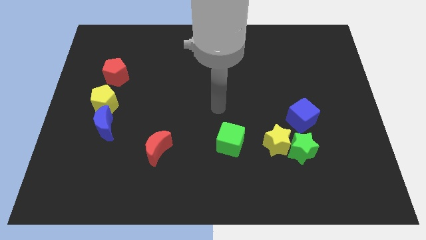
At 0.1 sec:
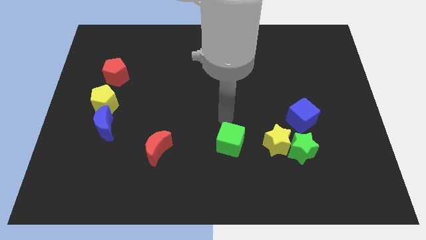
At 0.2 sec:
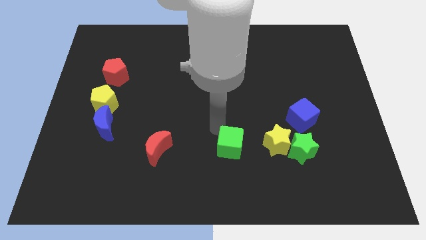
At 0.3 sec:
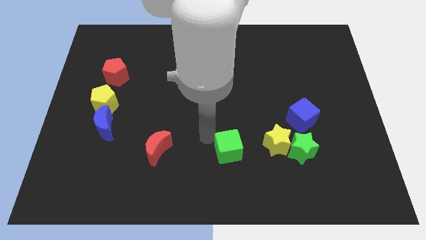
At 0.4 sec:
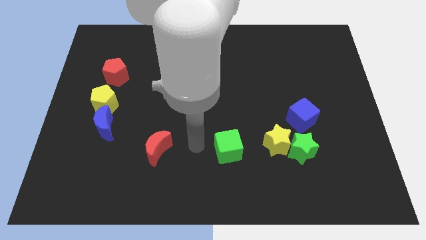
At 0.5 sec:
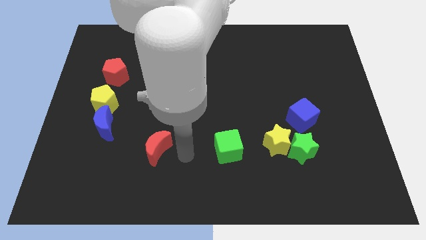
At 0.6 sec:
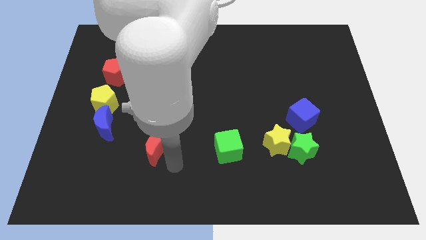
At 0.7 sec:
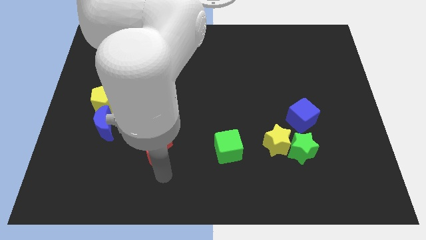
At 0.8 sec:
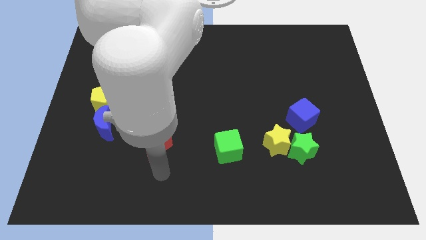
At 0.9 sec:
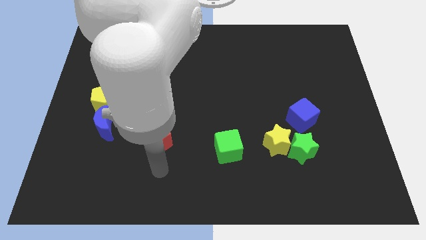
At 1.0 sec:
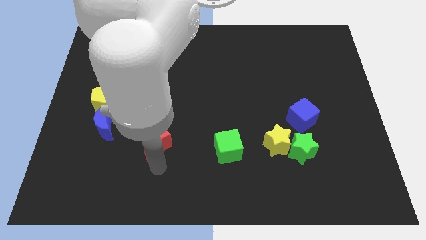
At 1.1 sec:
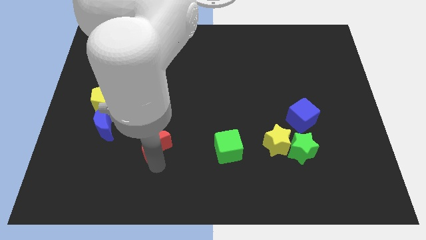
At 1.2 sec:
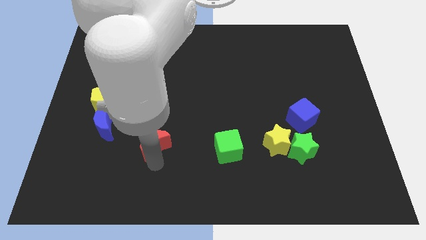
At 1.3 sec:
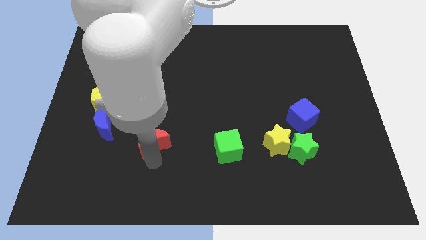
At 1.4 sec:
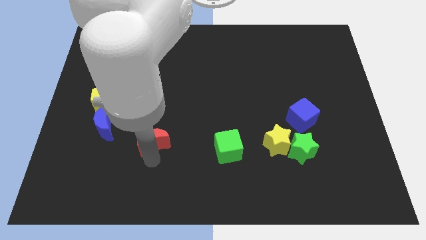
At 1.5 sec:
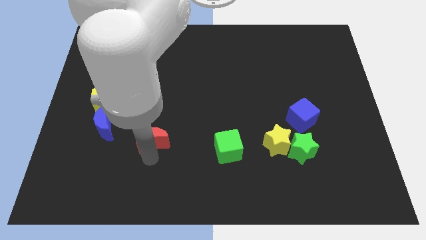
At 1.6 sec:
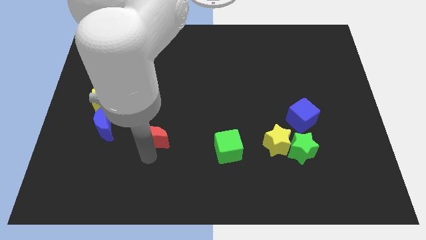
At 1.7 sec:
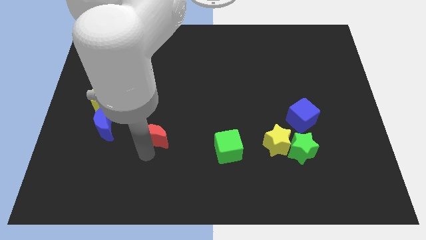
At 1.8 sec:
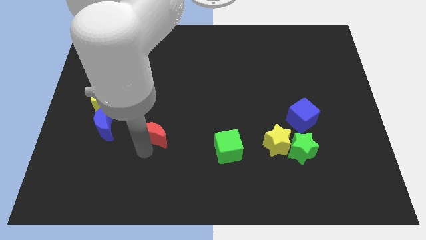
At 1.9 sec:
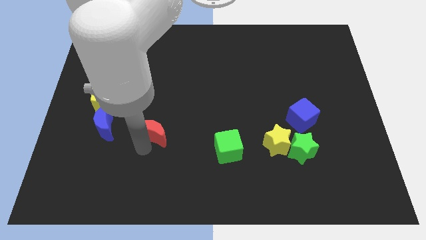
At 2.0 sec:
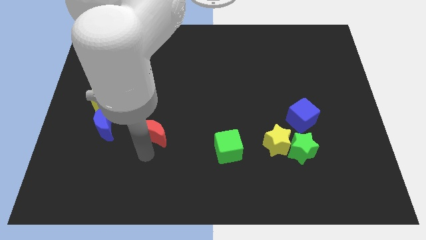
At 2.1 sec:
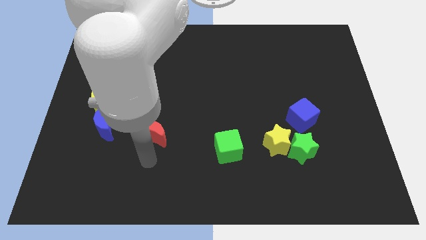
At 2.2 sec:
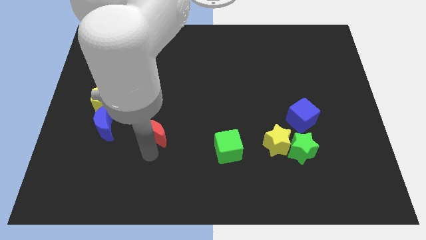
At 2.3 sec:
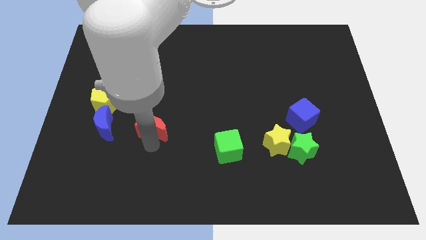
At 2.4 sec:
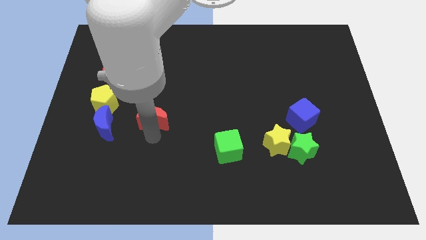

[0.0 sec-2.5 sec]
push the red moon a little up

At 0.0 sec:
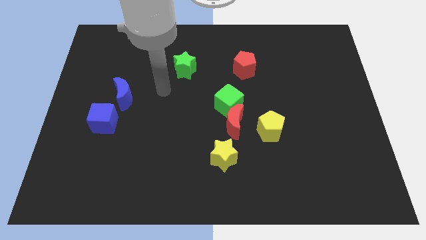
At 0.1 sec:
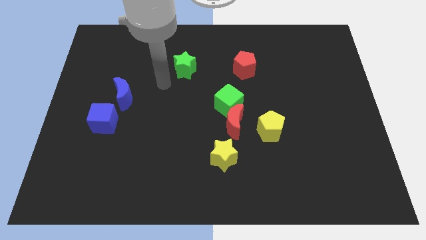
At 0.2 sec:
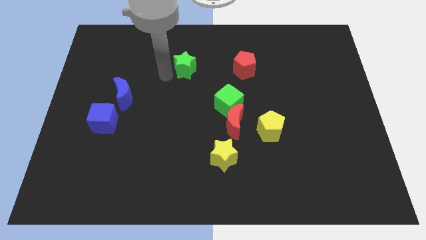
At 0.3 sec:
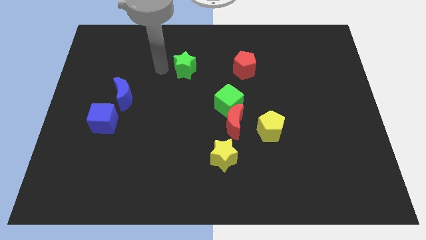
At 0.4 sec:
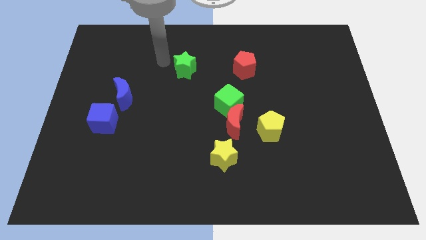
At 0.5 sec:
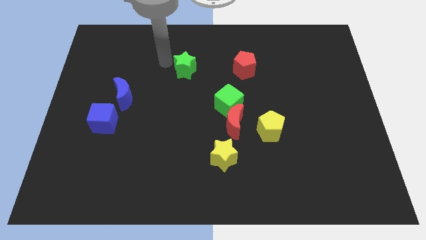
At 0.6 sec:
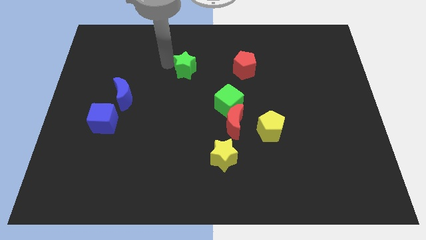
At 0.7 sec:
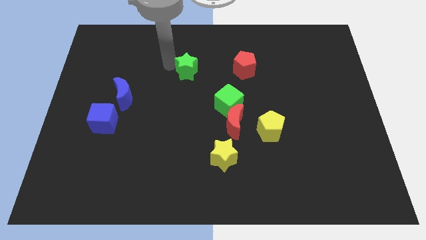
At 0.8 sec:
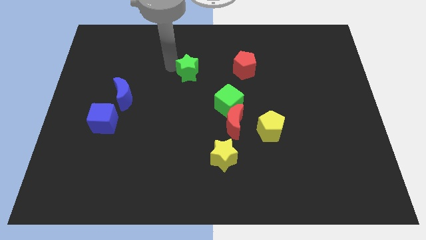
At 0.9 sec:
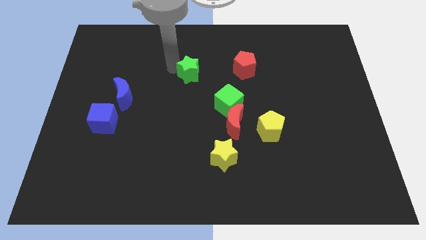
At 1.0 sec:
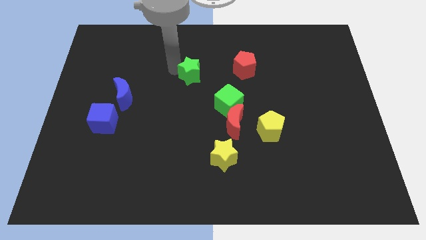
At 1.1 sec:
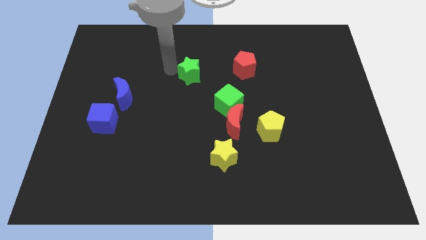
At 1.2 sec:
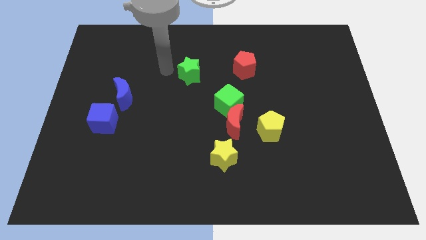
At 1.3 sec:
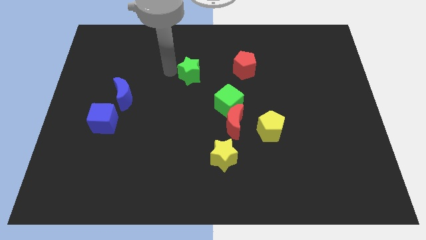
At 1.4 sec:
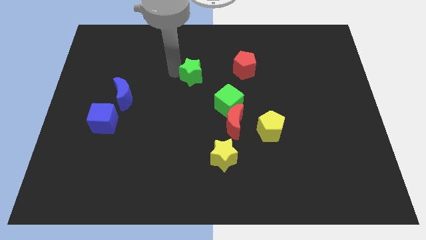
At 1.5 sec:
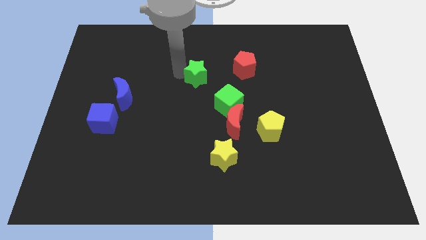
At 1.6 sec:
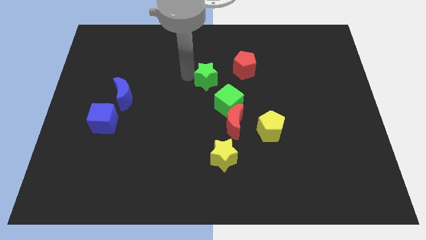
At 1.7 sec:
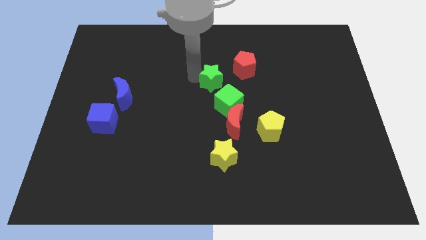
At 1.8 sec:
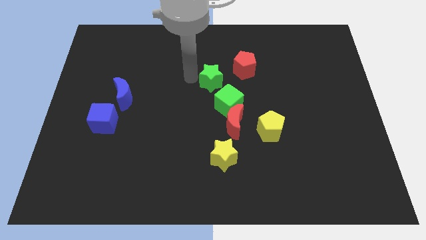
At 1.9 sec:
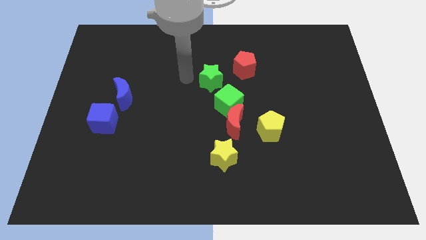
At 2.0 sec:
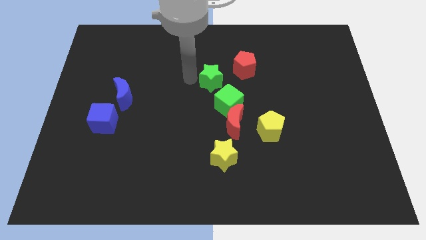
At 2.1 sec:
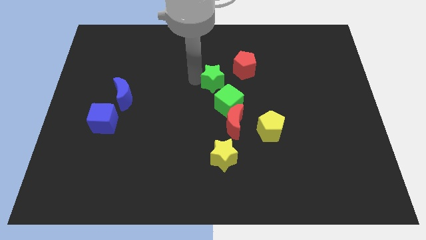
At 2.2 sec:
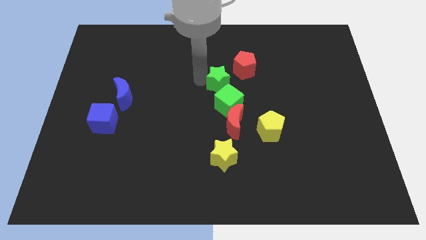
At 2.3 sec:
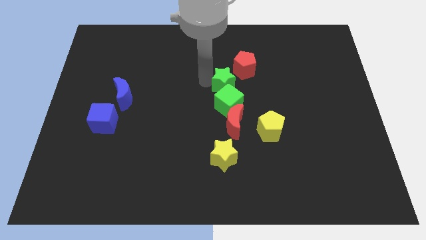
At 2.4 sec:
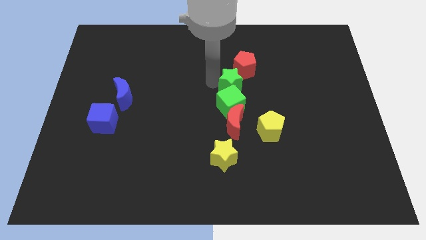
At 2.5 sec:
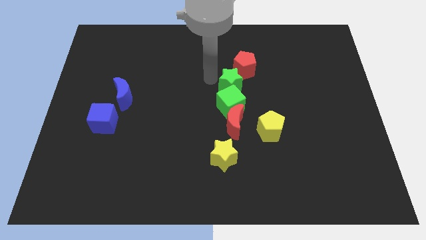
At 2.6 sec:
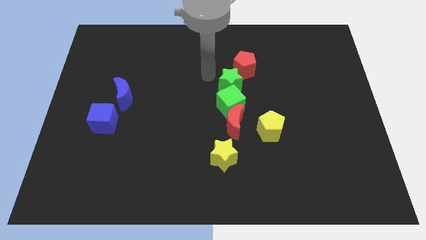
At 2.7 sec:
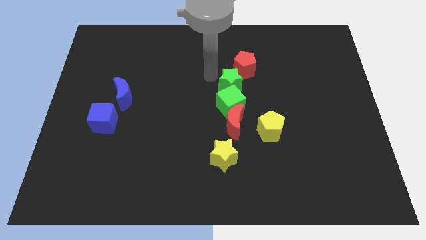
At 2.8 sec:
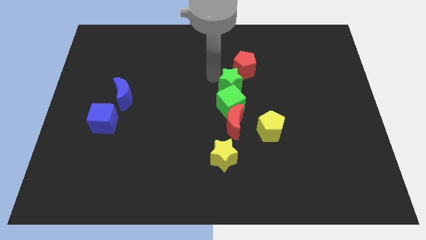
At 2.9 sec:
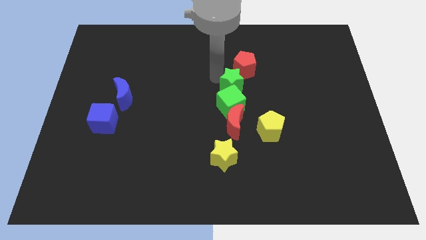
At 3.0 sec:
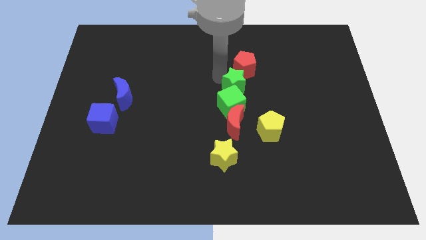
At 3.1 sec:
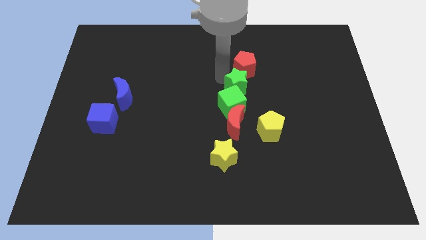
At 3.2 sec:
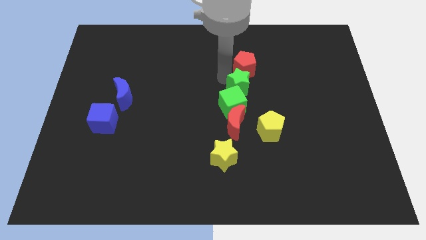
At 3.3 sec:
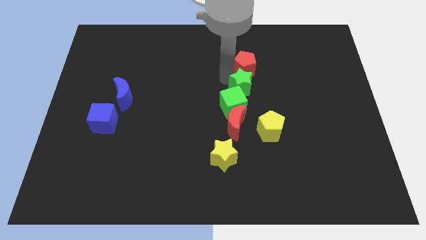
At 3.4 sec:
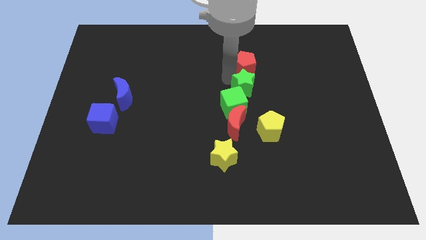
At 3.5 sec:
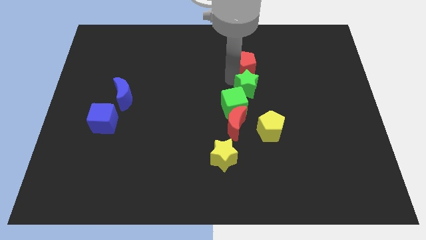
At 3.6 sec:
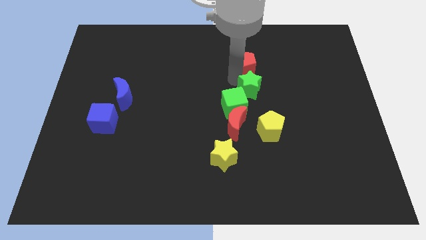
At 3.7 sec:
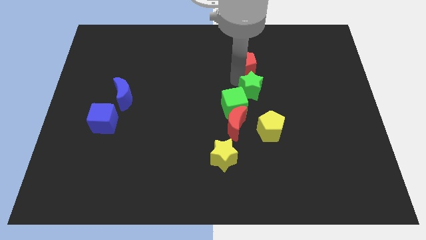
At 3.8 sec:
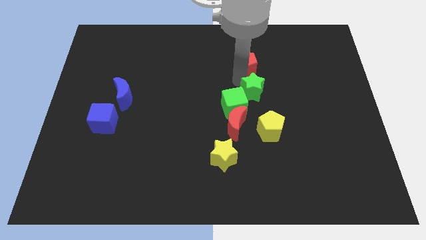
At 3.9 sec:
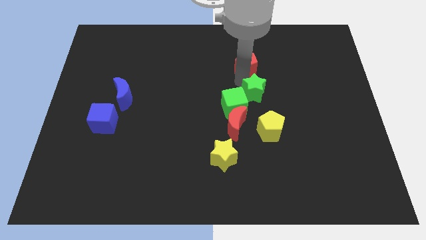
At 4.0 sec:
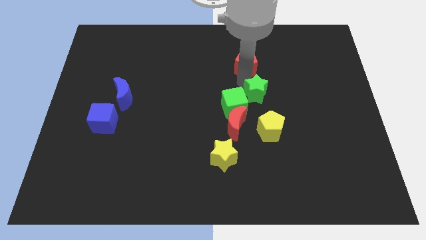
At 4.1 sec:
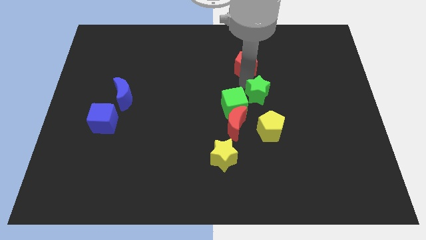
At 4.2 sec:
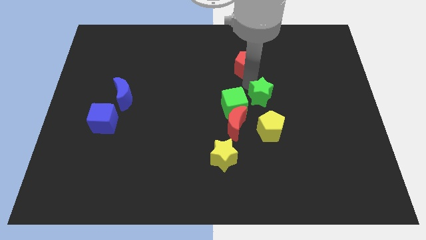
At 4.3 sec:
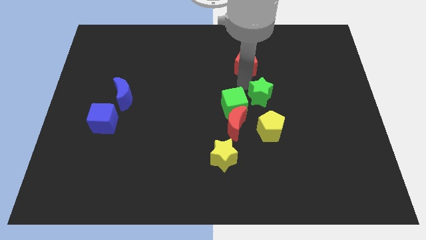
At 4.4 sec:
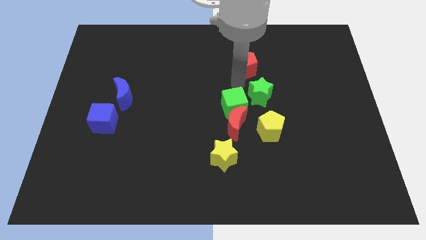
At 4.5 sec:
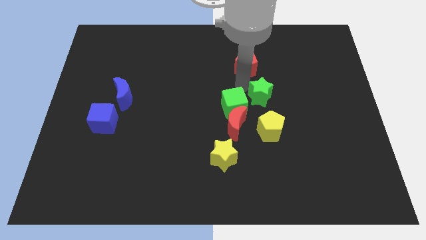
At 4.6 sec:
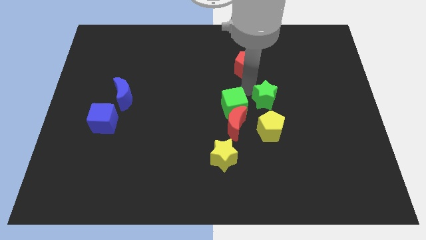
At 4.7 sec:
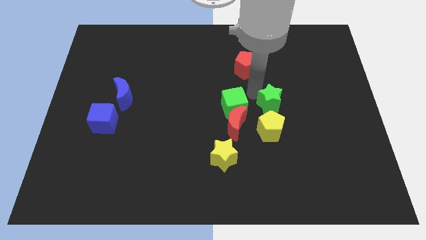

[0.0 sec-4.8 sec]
slide the green star downwards and right diagonally

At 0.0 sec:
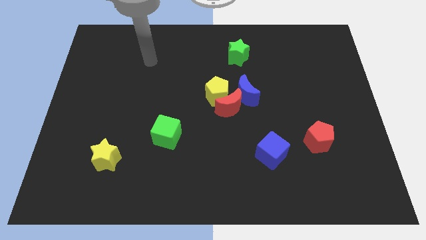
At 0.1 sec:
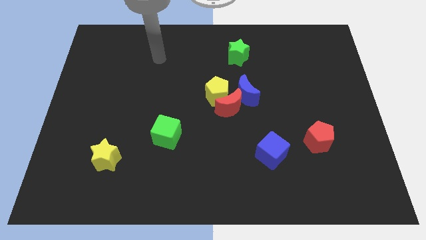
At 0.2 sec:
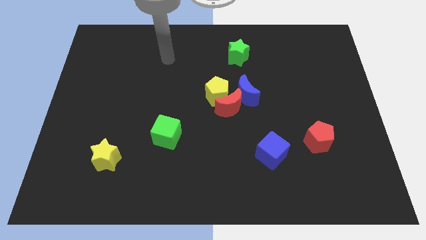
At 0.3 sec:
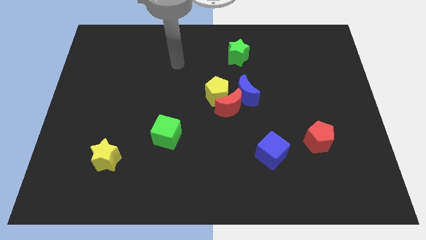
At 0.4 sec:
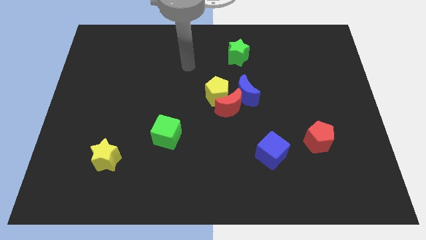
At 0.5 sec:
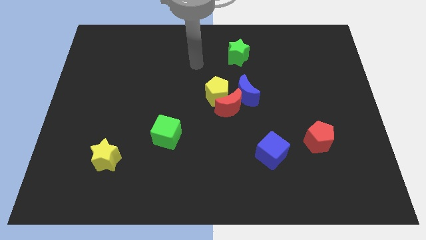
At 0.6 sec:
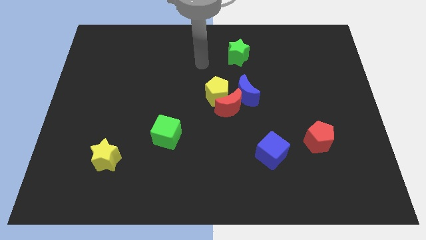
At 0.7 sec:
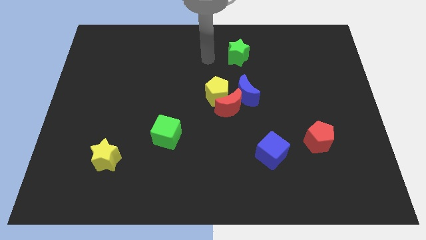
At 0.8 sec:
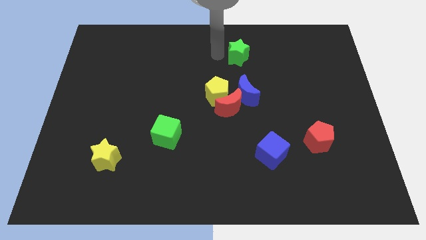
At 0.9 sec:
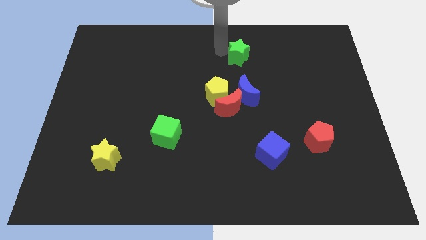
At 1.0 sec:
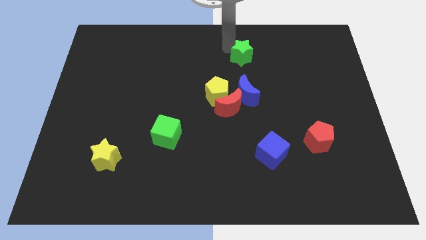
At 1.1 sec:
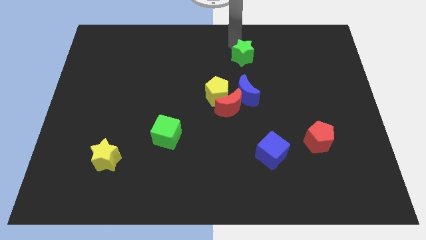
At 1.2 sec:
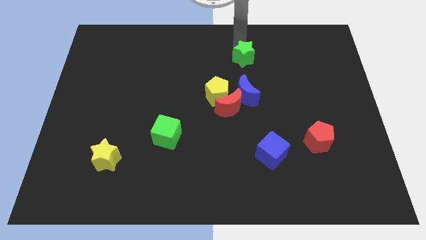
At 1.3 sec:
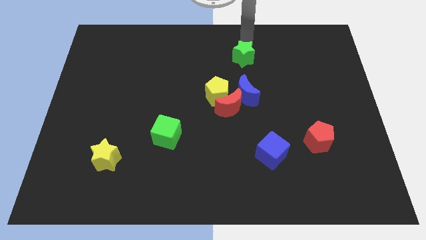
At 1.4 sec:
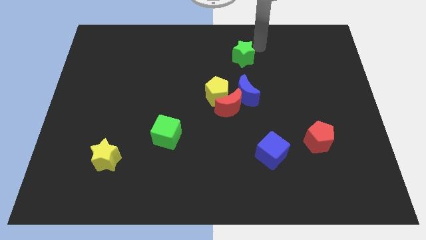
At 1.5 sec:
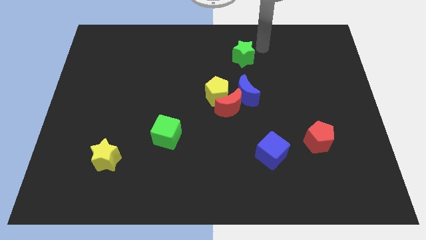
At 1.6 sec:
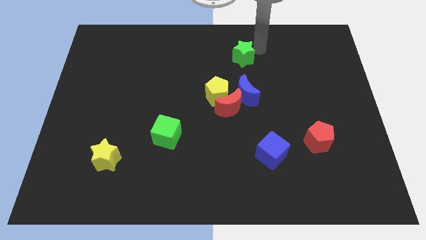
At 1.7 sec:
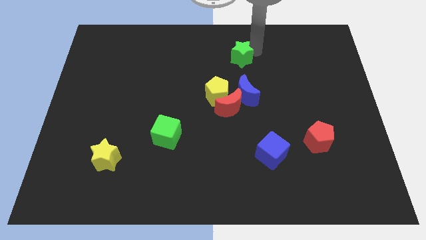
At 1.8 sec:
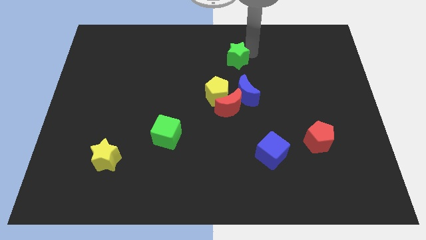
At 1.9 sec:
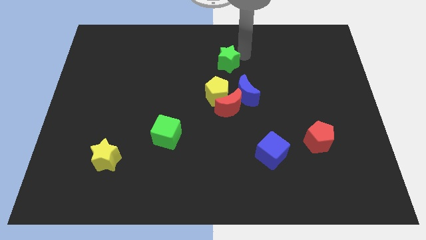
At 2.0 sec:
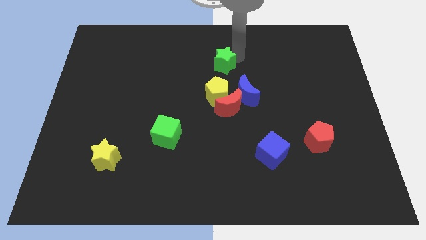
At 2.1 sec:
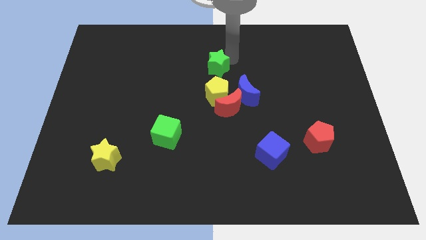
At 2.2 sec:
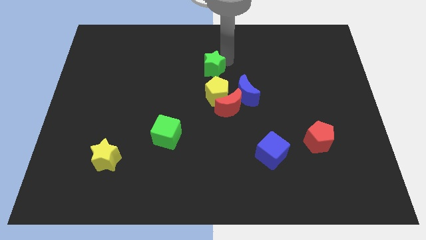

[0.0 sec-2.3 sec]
slightly push the green star down and left diagonally
